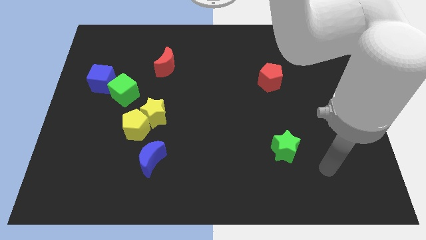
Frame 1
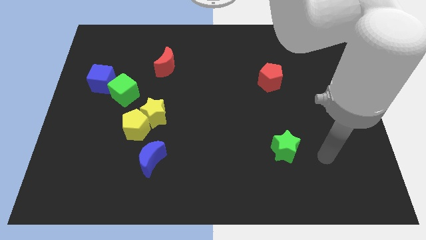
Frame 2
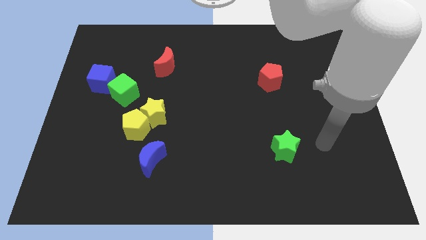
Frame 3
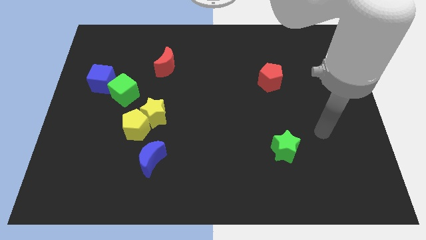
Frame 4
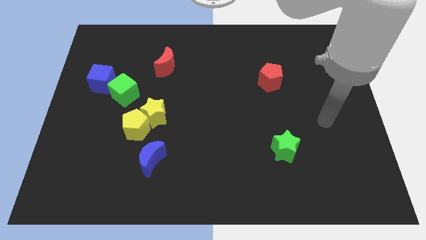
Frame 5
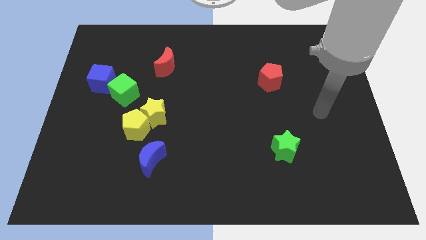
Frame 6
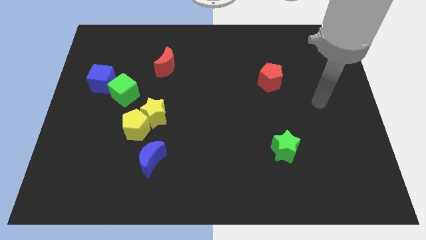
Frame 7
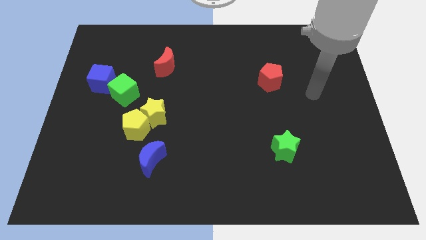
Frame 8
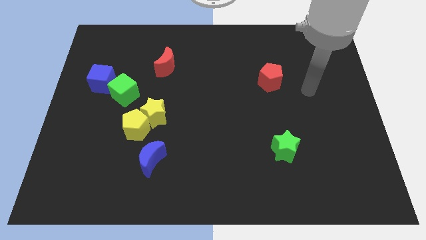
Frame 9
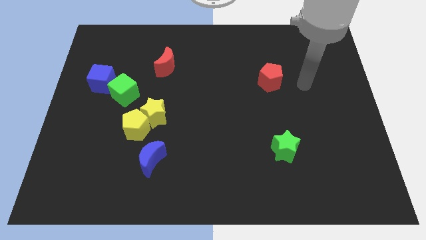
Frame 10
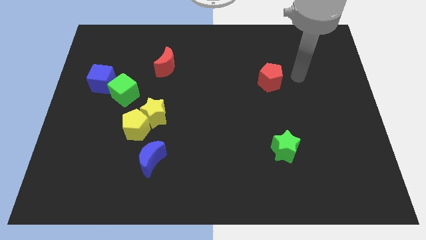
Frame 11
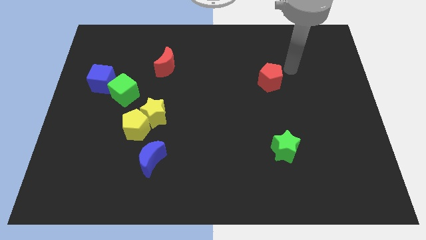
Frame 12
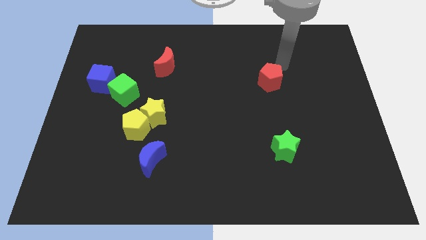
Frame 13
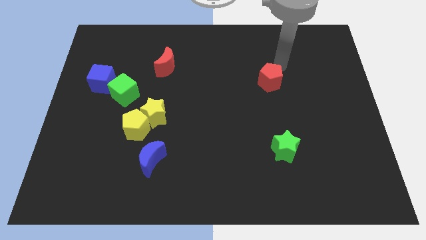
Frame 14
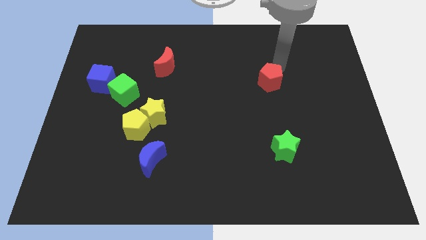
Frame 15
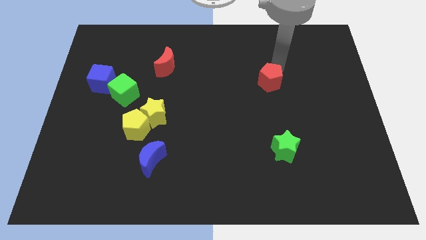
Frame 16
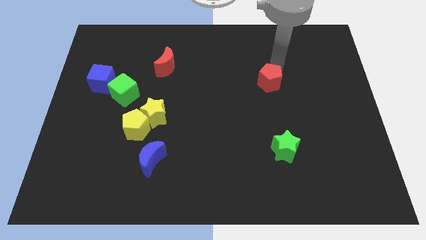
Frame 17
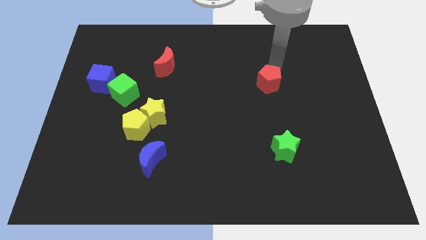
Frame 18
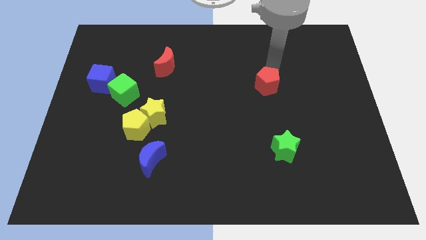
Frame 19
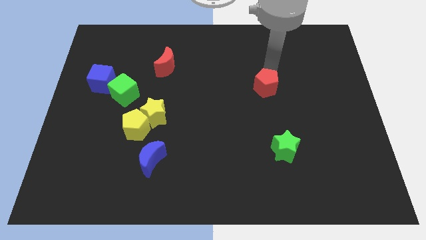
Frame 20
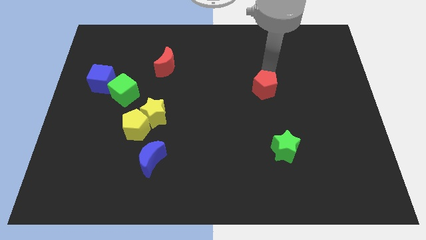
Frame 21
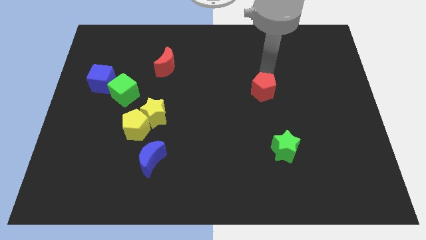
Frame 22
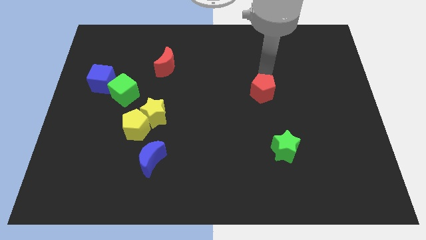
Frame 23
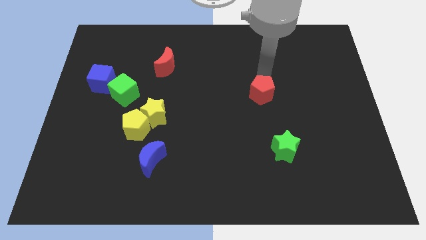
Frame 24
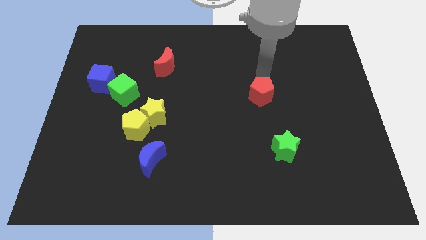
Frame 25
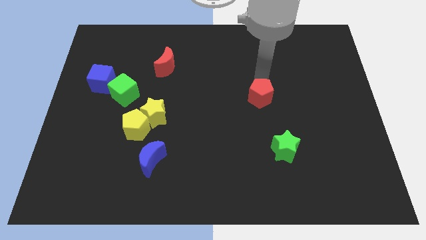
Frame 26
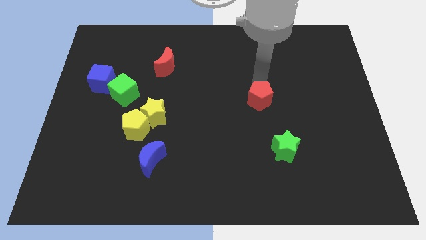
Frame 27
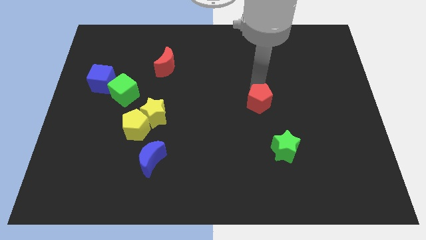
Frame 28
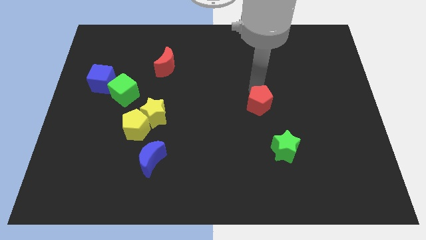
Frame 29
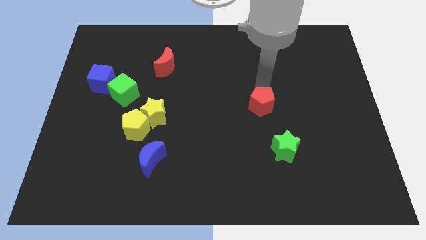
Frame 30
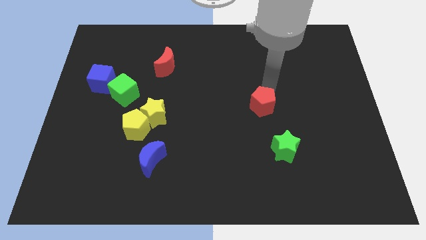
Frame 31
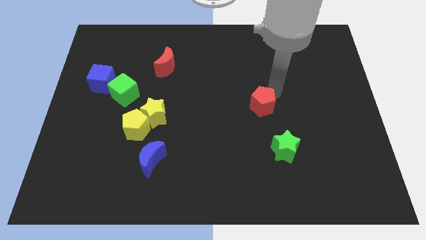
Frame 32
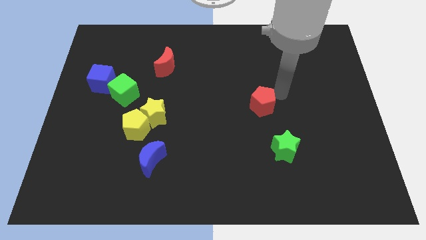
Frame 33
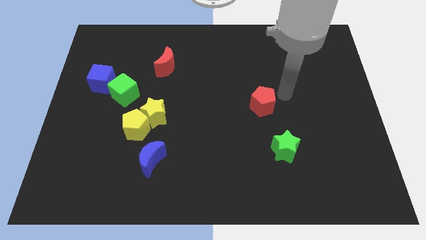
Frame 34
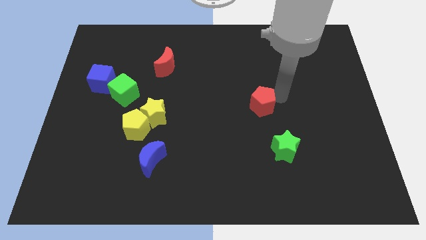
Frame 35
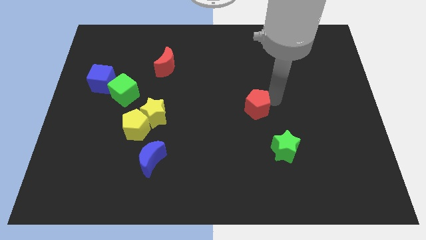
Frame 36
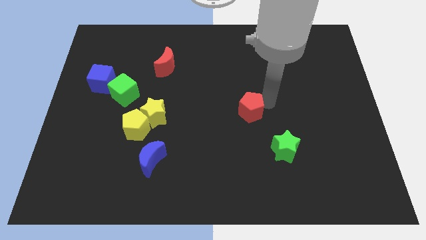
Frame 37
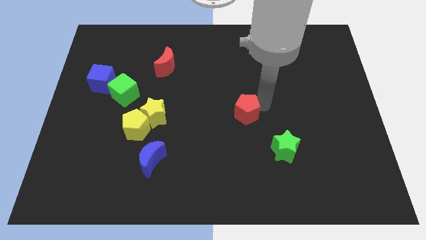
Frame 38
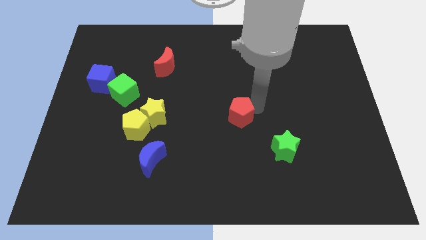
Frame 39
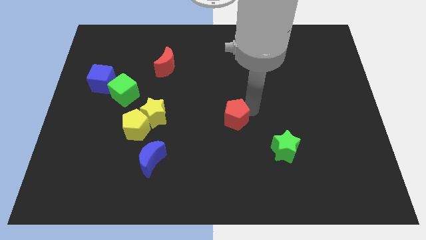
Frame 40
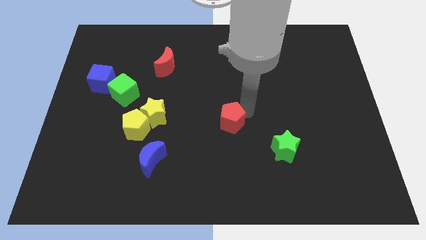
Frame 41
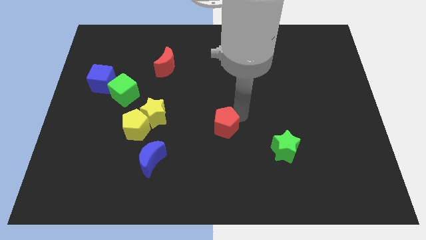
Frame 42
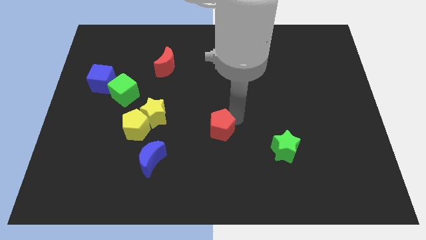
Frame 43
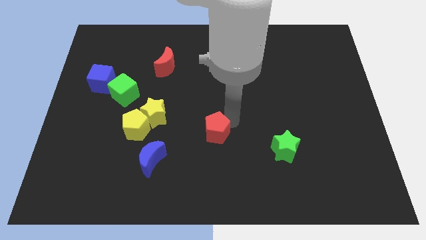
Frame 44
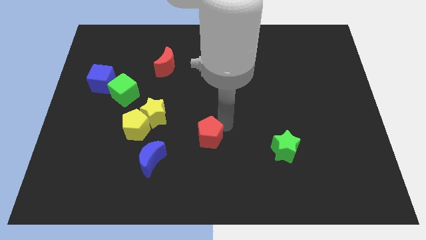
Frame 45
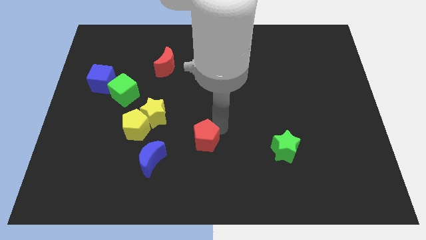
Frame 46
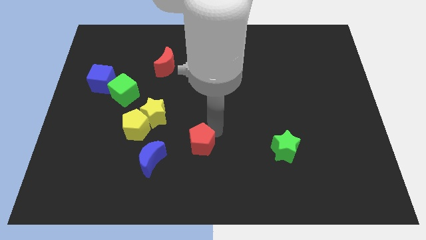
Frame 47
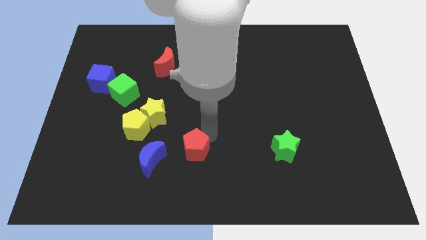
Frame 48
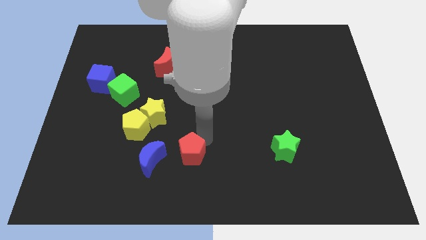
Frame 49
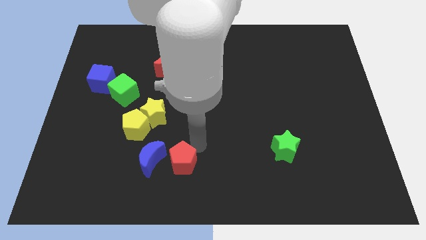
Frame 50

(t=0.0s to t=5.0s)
slide the red pentagon to the bottom right side of the blue moon

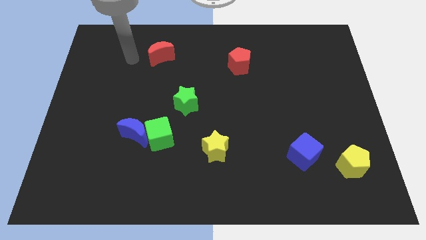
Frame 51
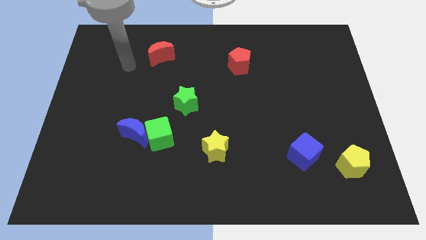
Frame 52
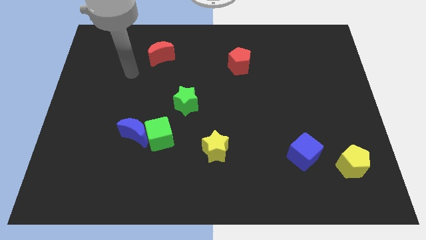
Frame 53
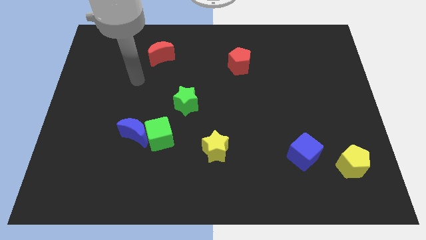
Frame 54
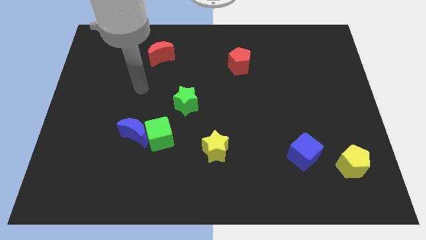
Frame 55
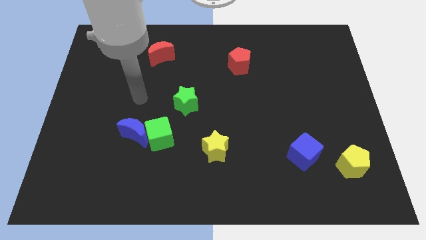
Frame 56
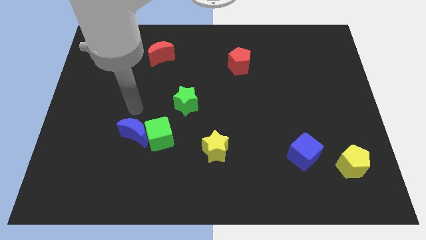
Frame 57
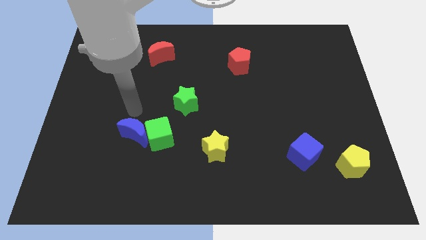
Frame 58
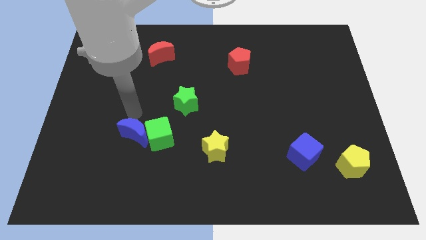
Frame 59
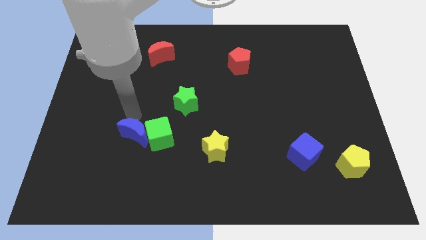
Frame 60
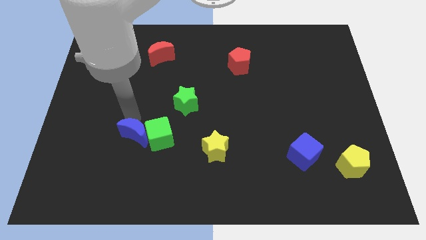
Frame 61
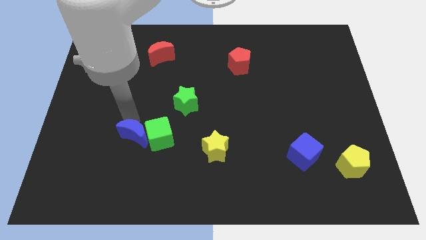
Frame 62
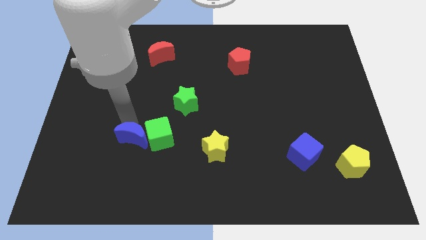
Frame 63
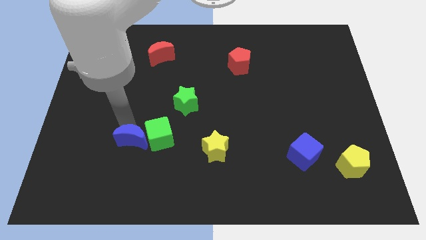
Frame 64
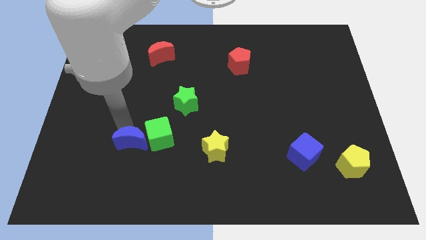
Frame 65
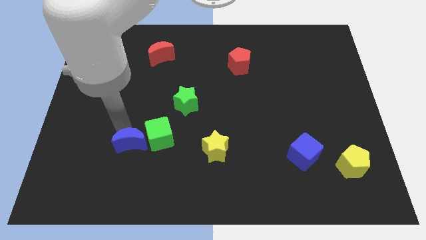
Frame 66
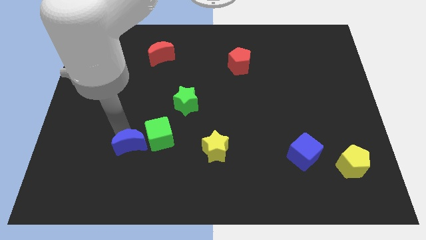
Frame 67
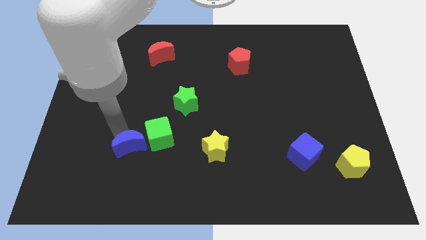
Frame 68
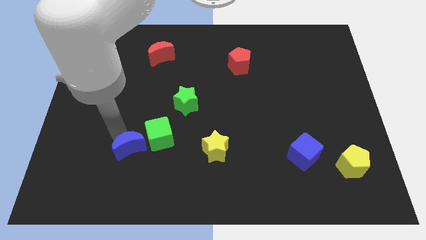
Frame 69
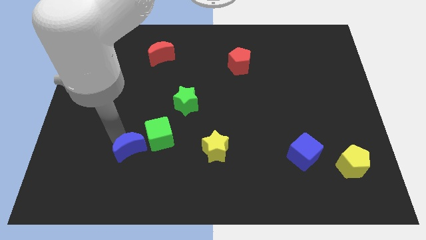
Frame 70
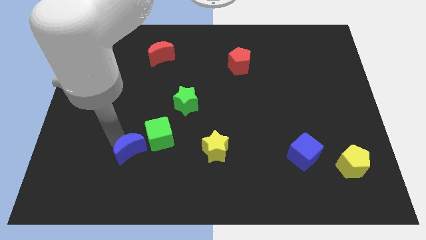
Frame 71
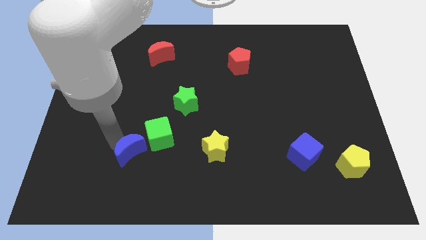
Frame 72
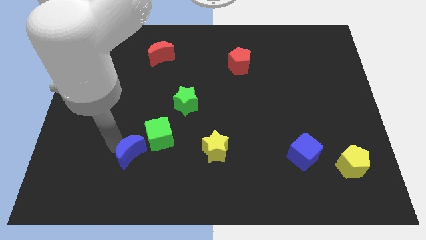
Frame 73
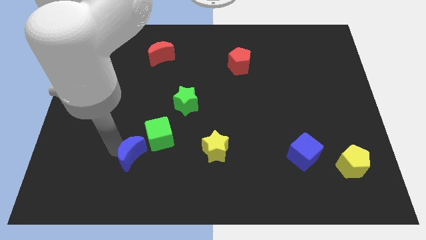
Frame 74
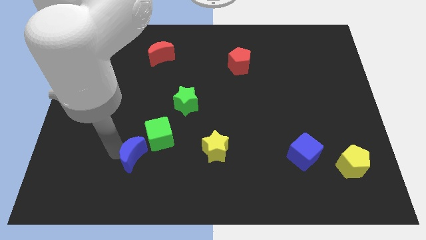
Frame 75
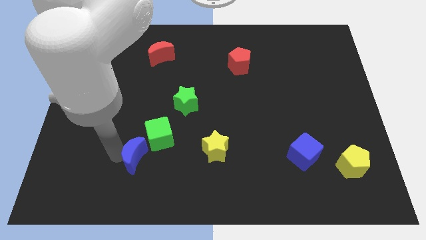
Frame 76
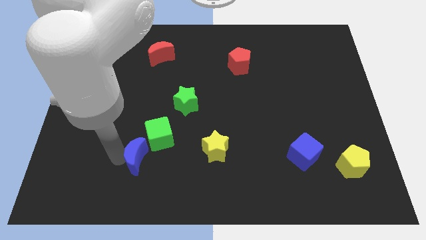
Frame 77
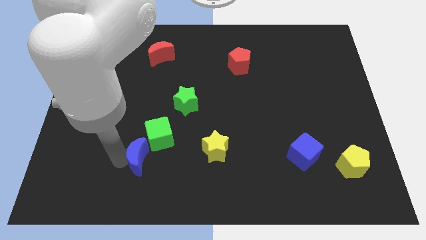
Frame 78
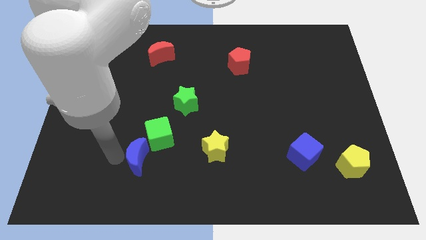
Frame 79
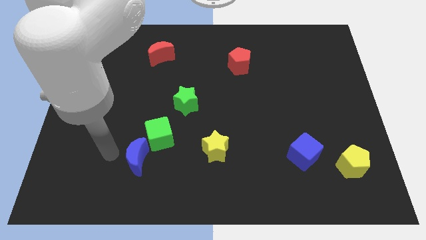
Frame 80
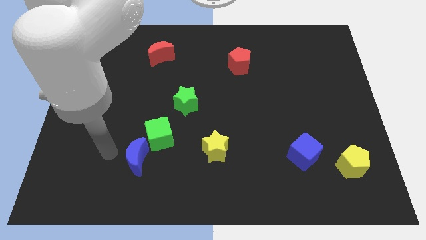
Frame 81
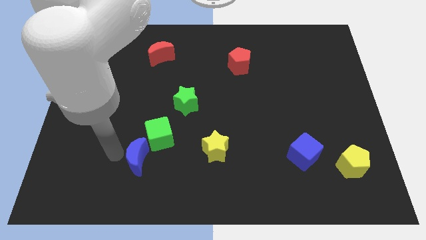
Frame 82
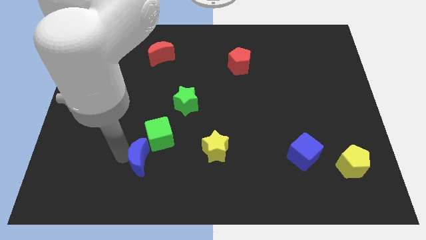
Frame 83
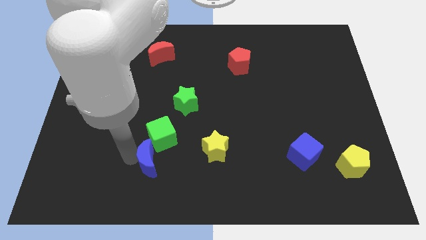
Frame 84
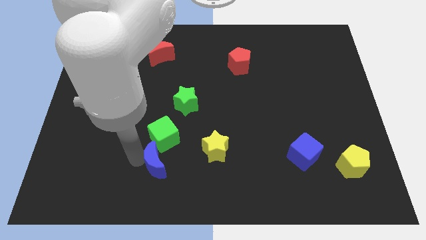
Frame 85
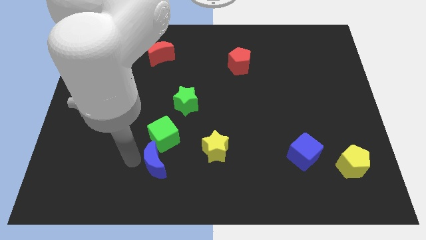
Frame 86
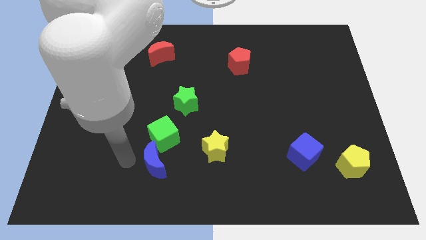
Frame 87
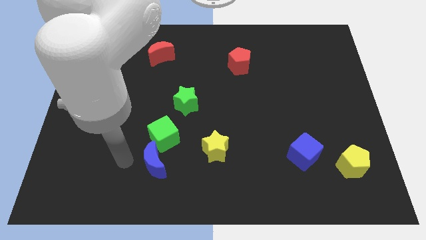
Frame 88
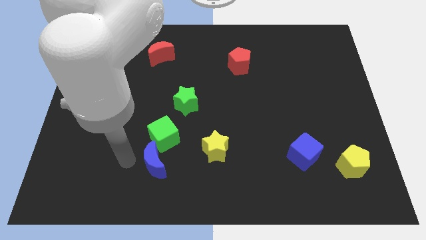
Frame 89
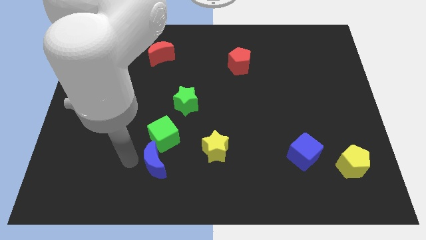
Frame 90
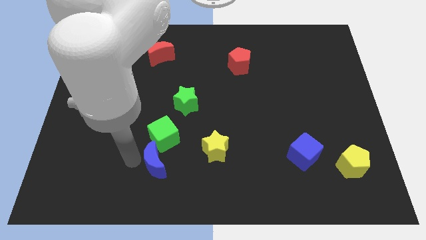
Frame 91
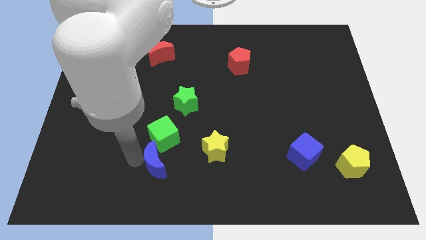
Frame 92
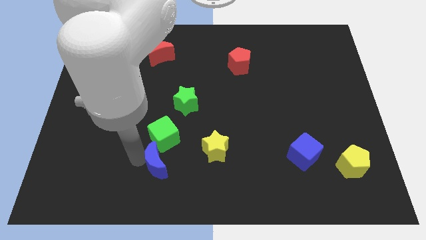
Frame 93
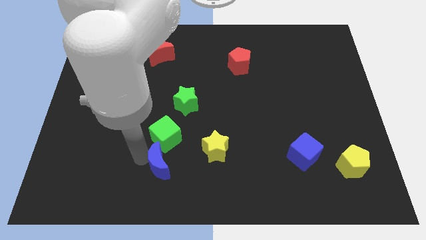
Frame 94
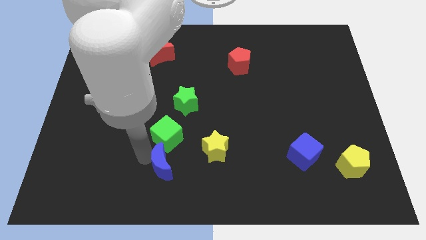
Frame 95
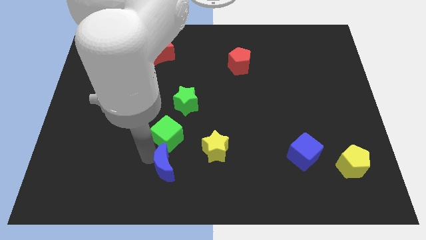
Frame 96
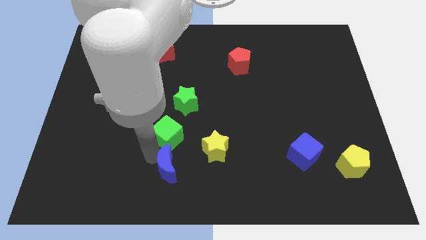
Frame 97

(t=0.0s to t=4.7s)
put the blue moon diagonally down and to the left of the yellow star
